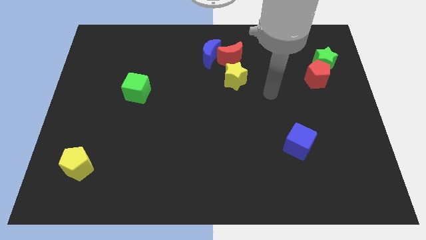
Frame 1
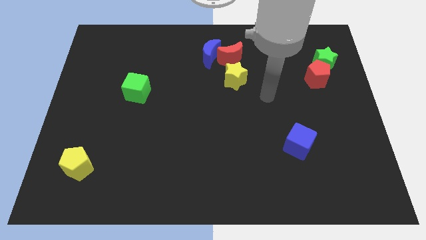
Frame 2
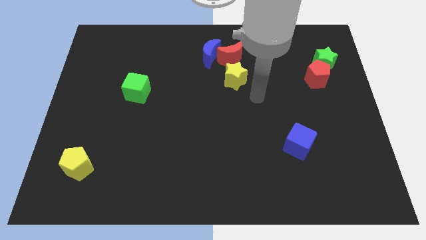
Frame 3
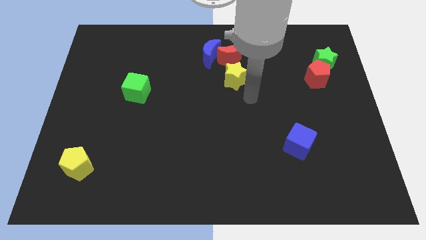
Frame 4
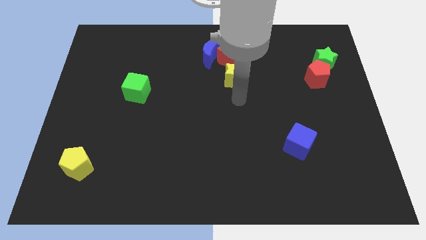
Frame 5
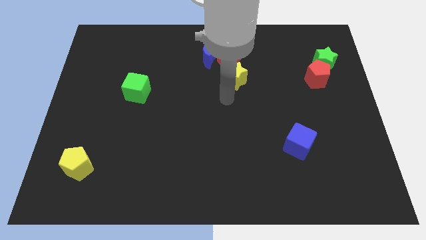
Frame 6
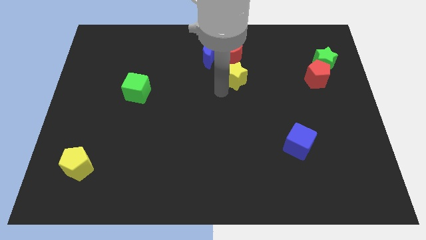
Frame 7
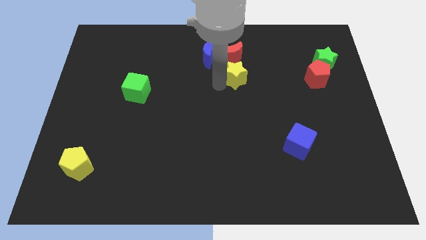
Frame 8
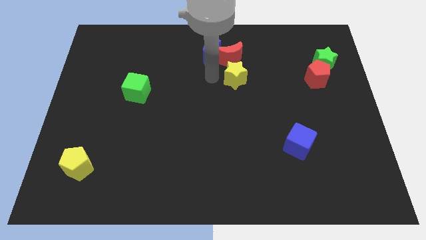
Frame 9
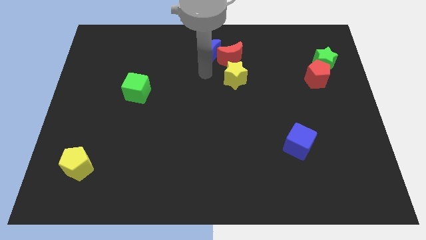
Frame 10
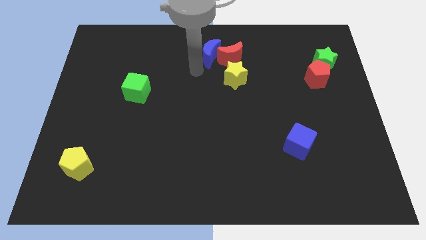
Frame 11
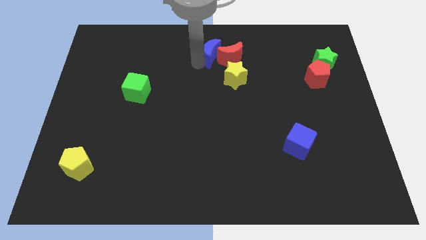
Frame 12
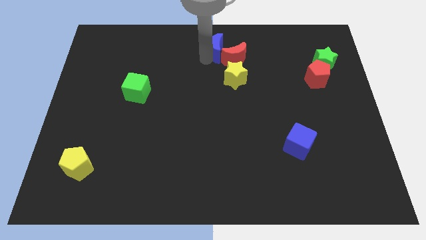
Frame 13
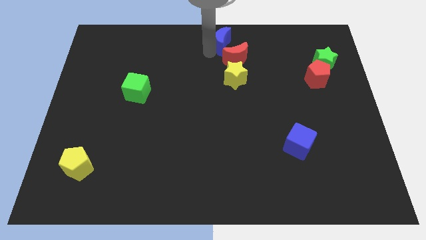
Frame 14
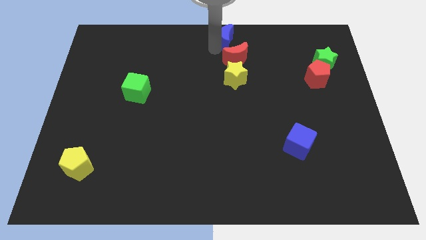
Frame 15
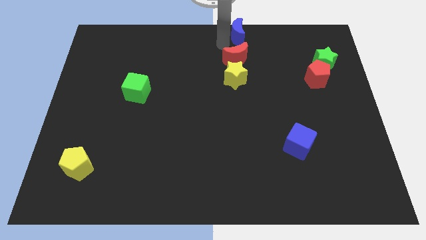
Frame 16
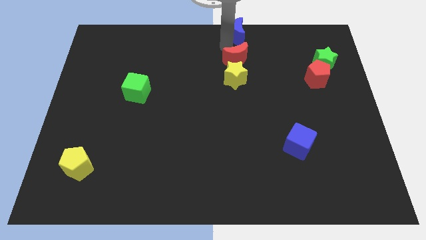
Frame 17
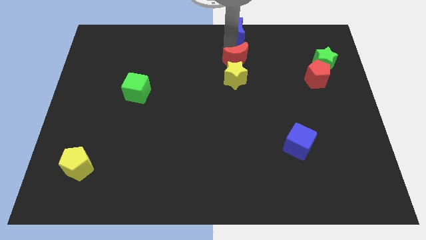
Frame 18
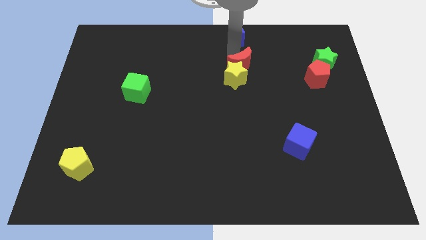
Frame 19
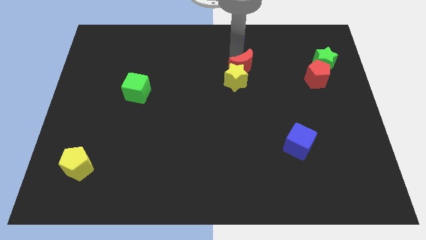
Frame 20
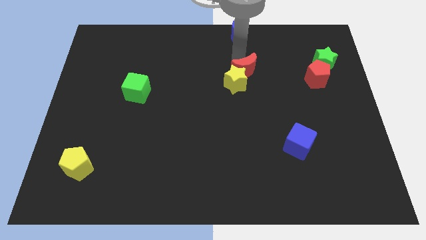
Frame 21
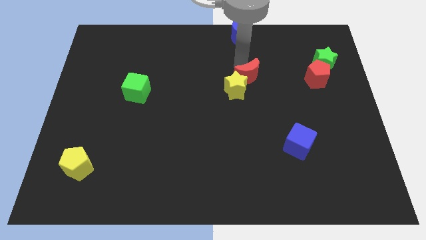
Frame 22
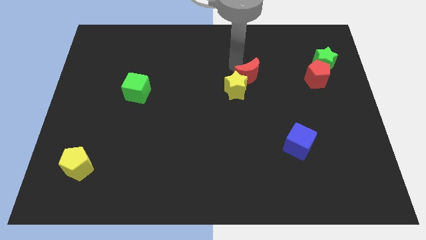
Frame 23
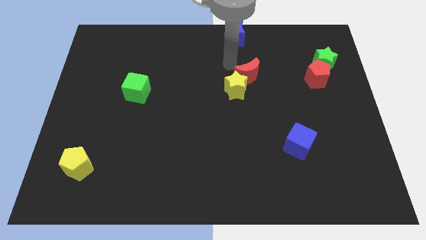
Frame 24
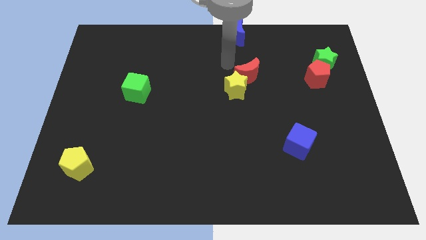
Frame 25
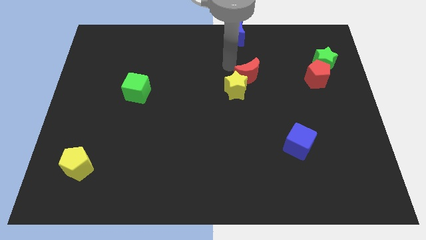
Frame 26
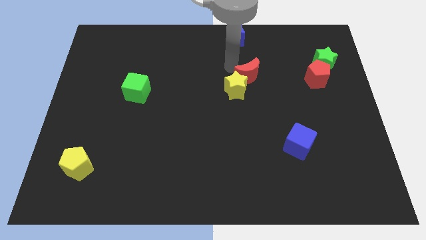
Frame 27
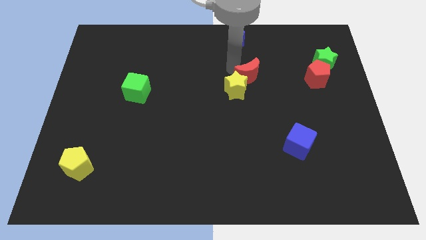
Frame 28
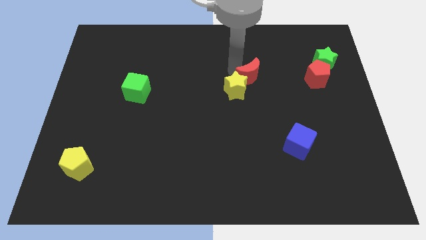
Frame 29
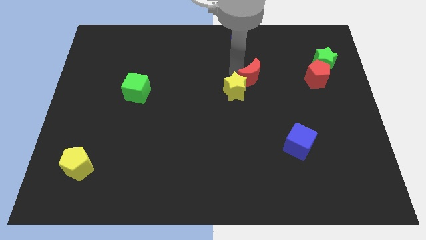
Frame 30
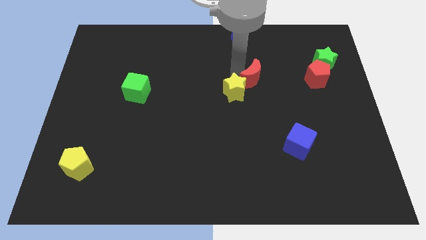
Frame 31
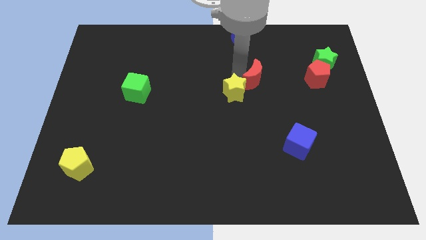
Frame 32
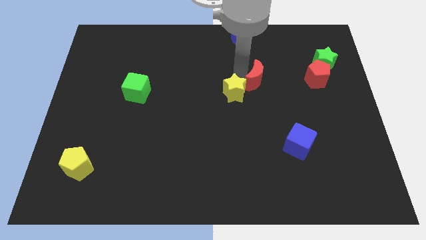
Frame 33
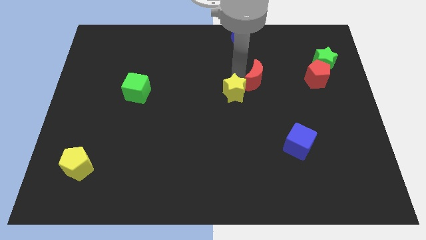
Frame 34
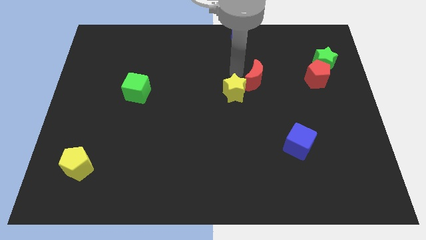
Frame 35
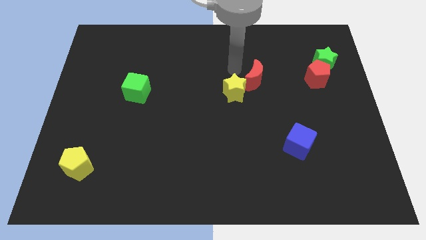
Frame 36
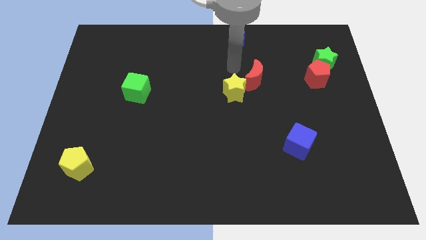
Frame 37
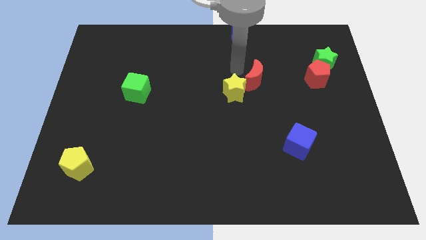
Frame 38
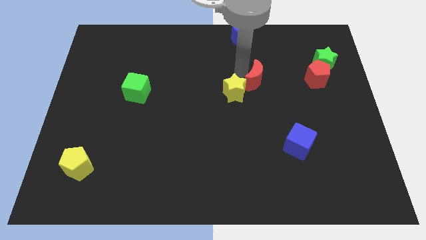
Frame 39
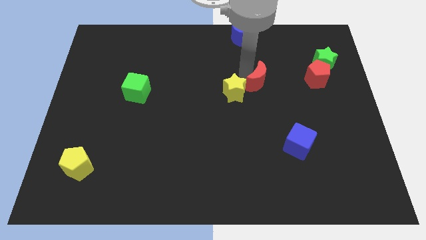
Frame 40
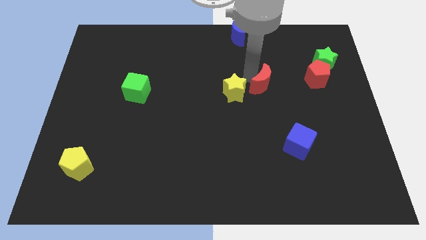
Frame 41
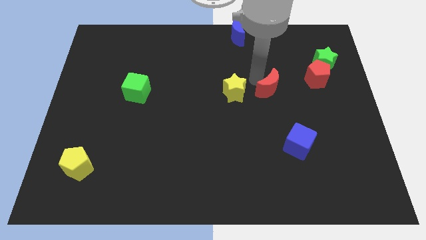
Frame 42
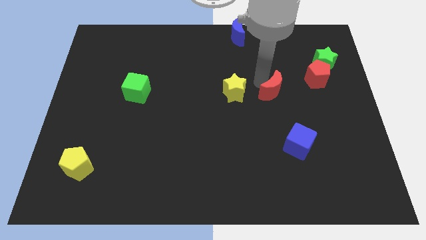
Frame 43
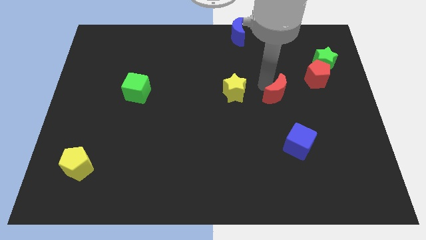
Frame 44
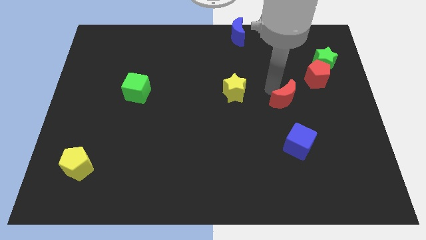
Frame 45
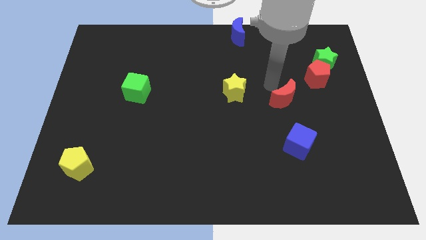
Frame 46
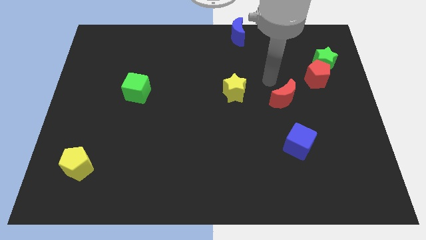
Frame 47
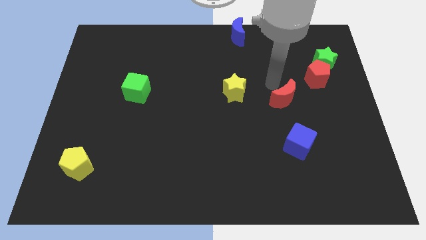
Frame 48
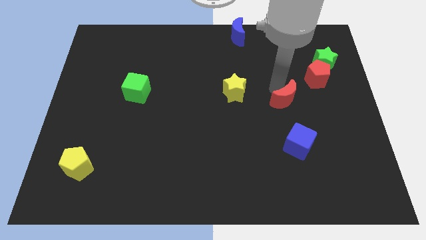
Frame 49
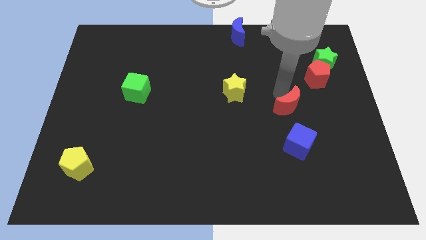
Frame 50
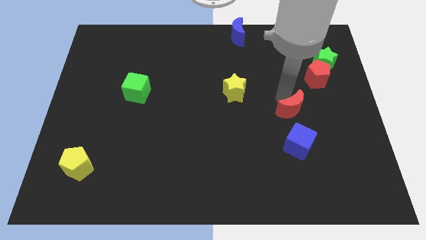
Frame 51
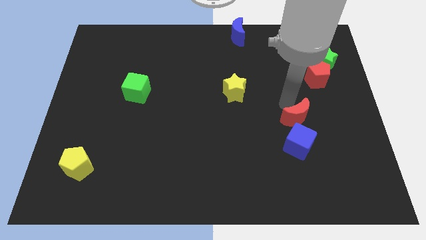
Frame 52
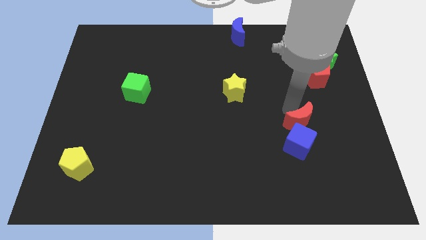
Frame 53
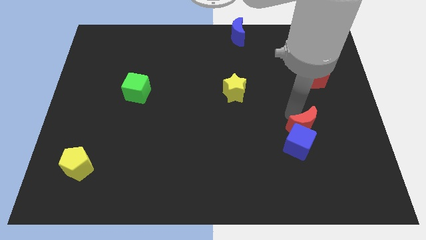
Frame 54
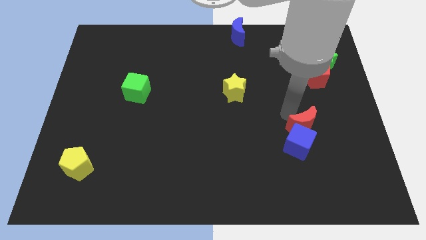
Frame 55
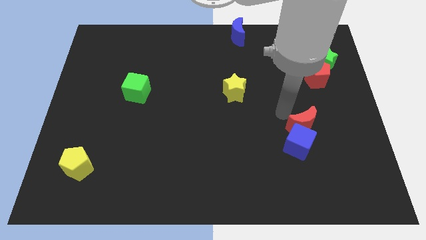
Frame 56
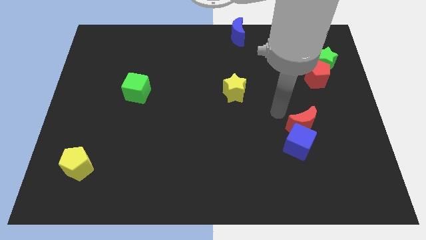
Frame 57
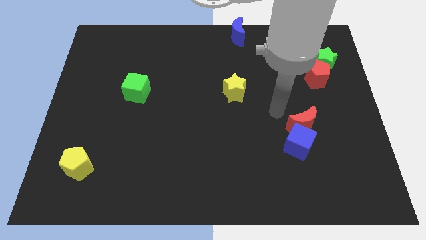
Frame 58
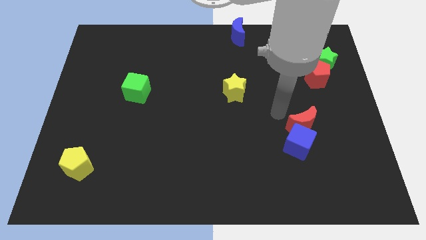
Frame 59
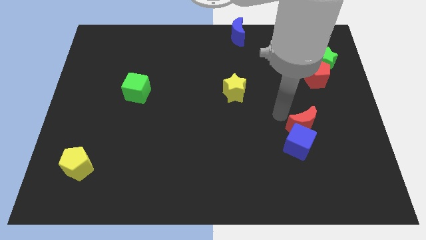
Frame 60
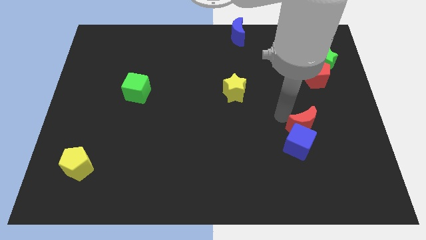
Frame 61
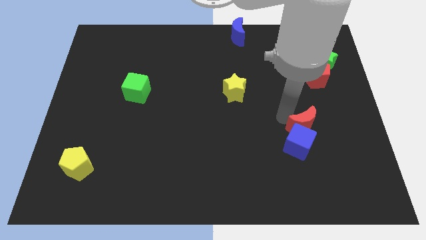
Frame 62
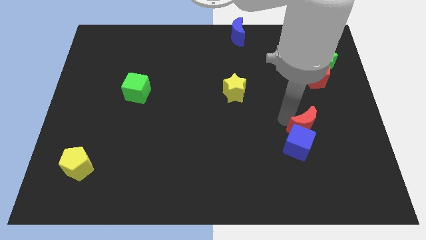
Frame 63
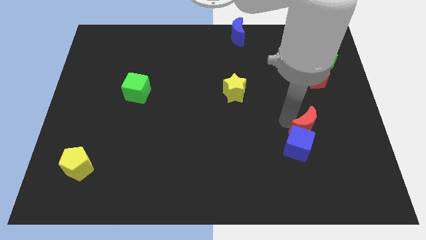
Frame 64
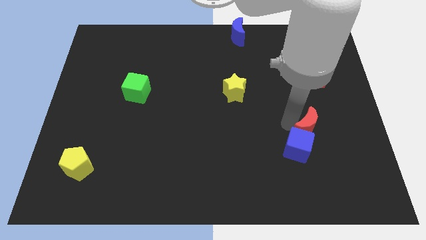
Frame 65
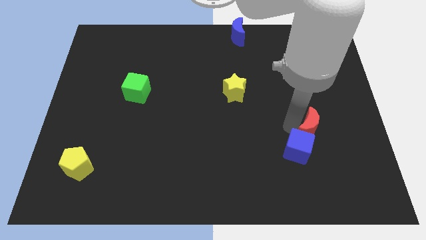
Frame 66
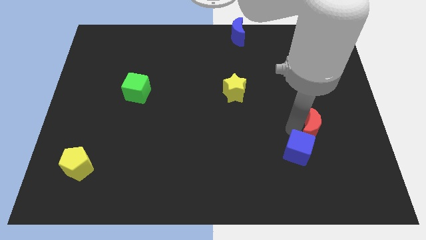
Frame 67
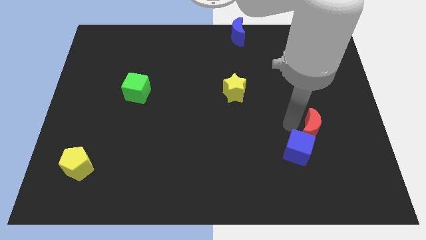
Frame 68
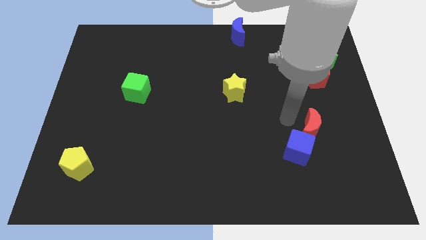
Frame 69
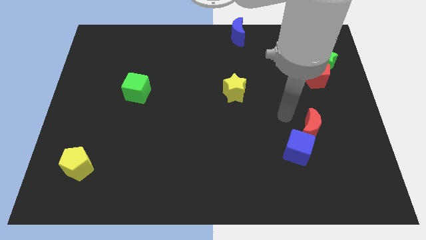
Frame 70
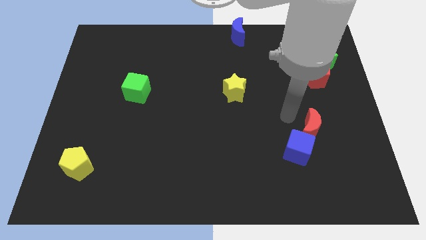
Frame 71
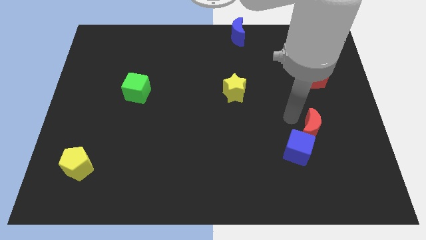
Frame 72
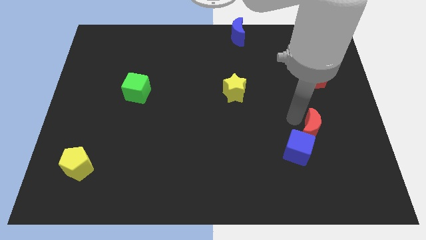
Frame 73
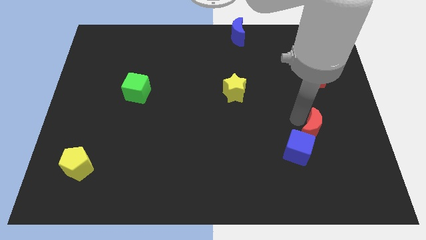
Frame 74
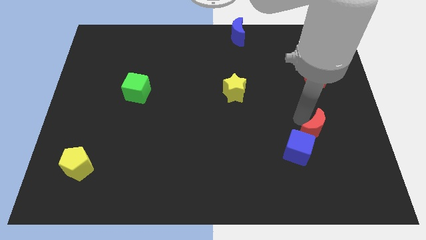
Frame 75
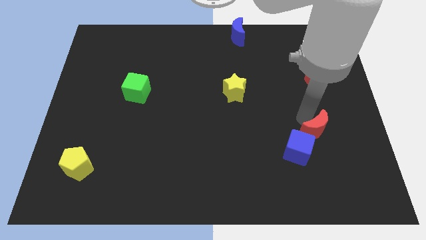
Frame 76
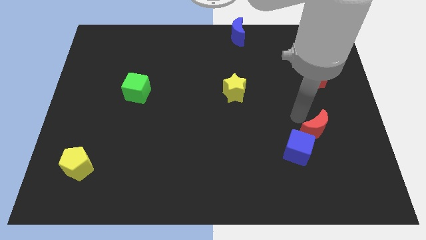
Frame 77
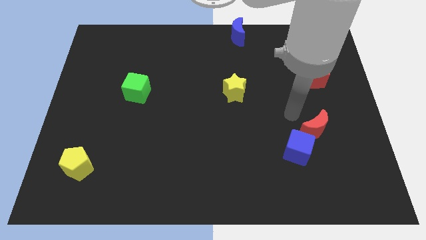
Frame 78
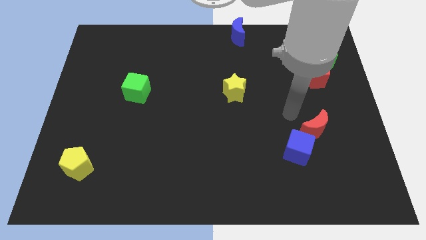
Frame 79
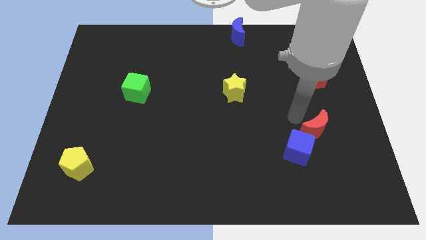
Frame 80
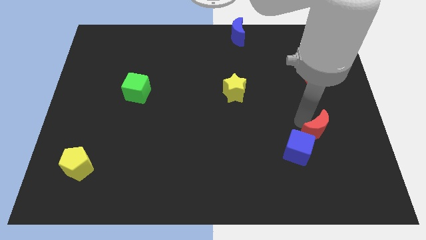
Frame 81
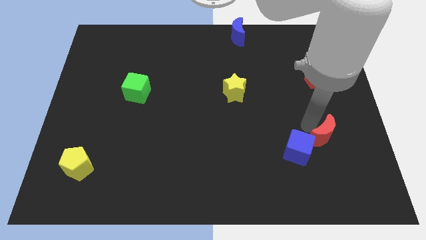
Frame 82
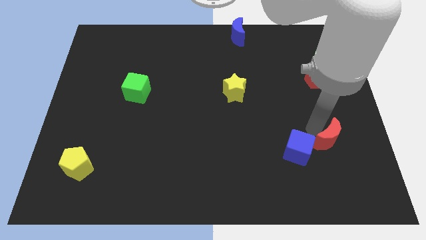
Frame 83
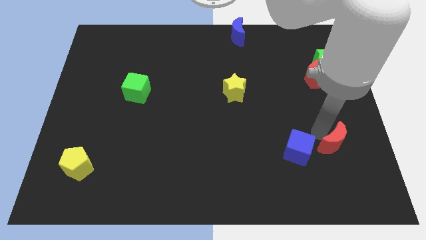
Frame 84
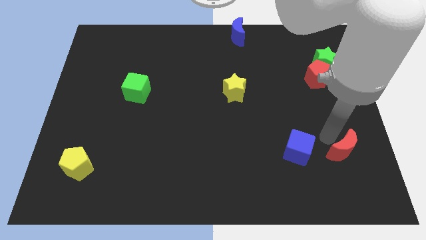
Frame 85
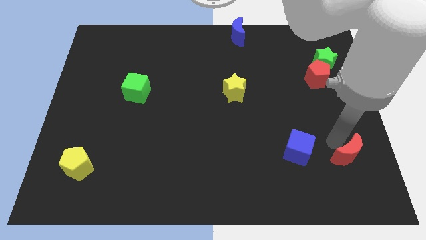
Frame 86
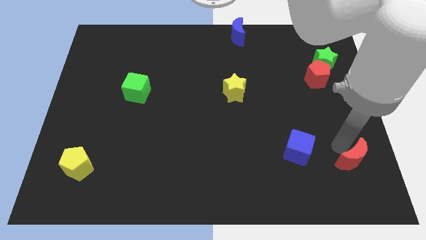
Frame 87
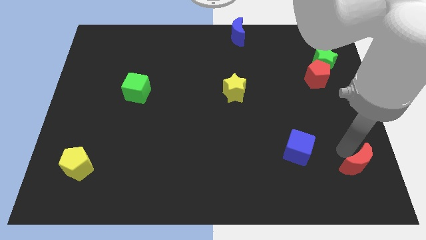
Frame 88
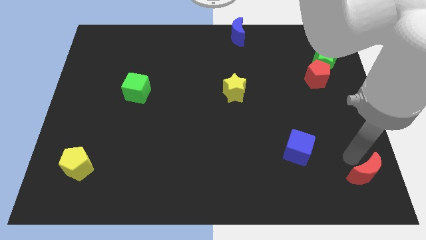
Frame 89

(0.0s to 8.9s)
push the red moon to the bottom right corner
